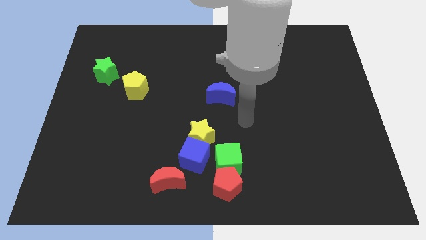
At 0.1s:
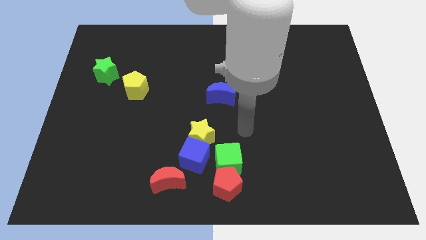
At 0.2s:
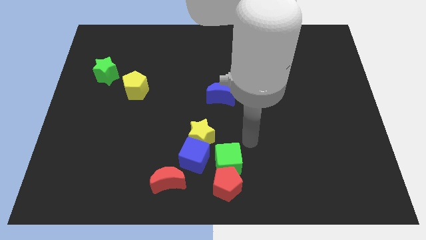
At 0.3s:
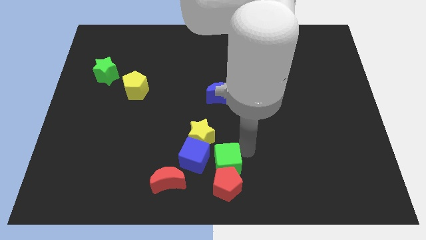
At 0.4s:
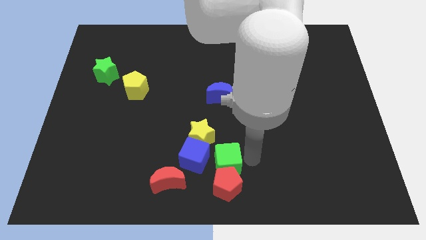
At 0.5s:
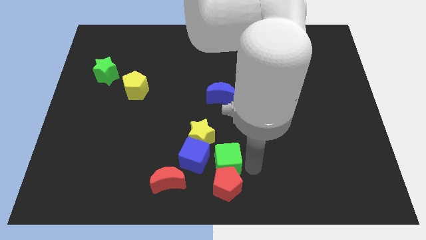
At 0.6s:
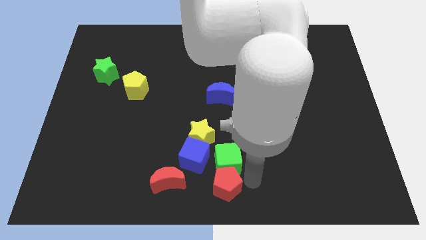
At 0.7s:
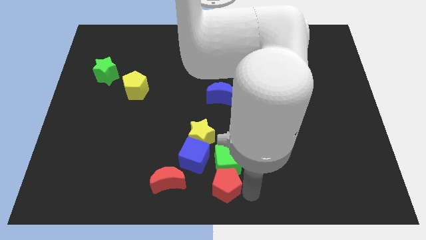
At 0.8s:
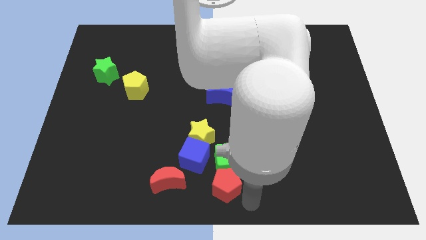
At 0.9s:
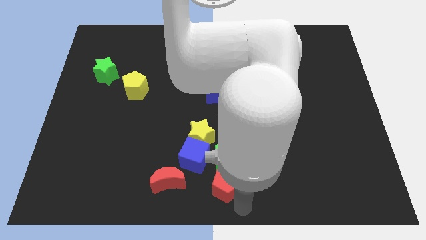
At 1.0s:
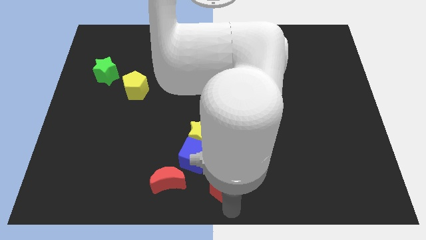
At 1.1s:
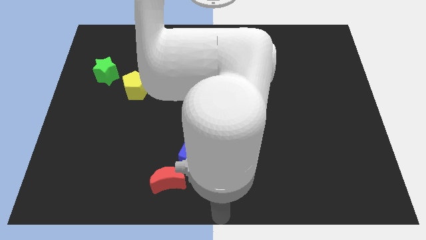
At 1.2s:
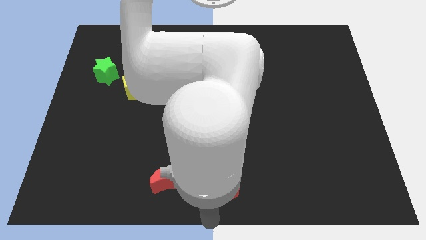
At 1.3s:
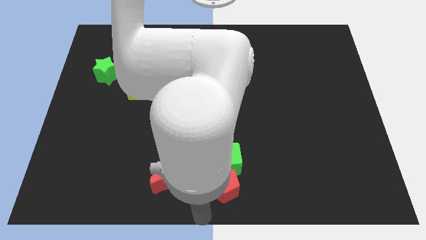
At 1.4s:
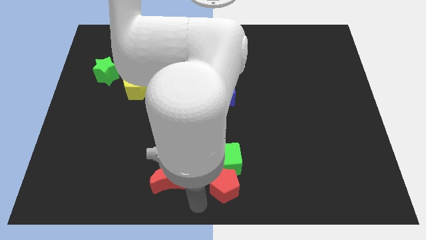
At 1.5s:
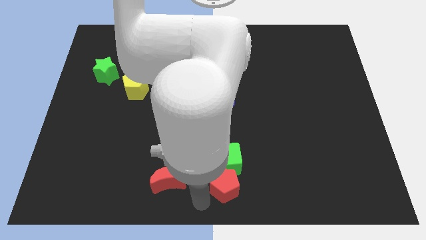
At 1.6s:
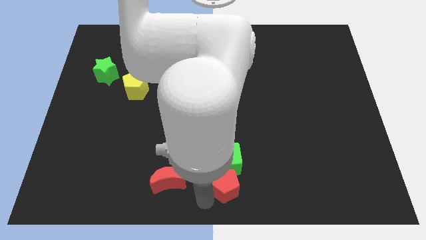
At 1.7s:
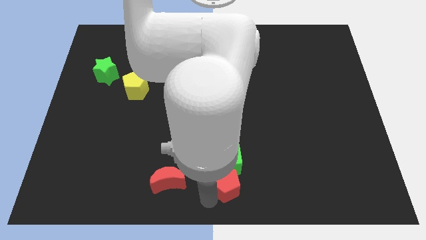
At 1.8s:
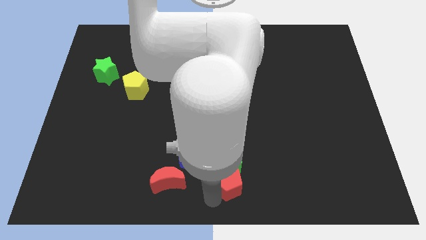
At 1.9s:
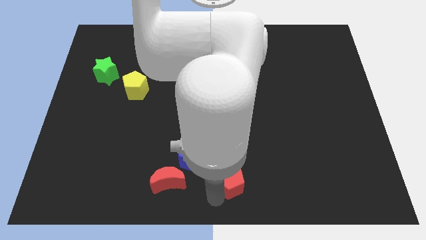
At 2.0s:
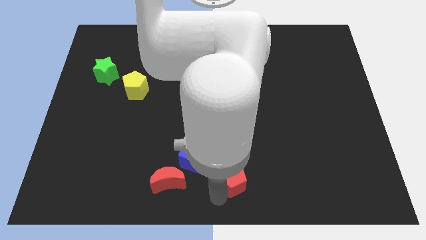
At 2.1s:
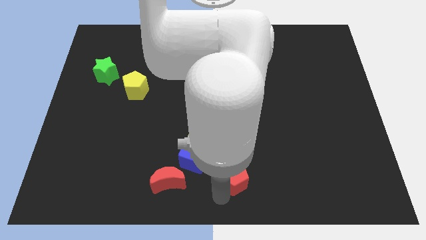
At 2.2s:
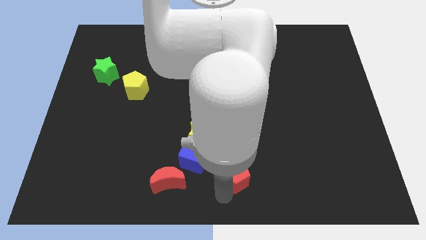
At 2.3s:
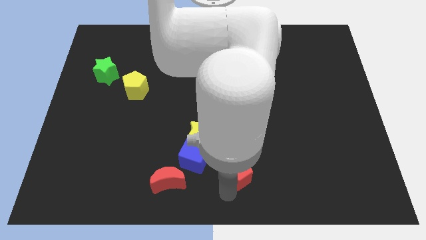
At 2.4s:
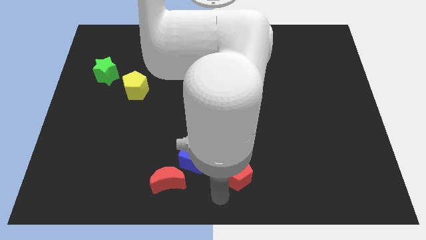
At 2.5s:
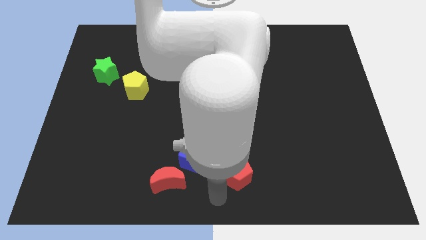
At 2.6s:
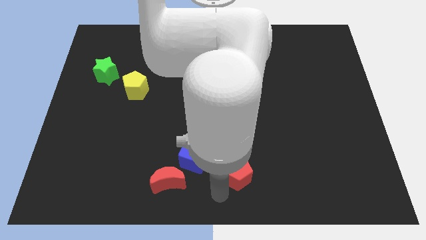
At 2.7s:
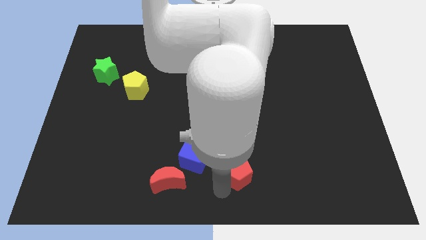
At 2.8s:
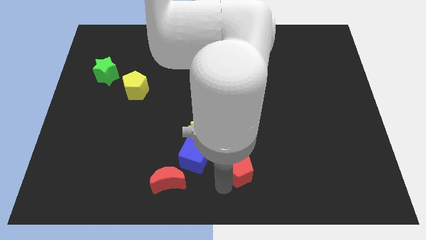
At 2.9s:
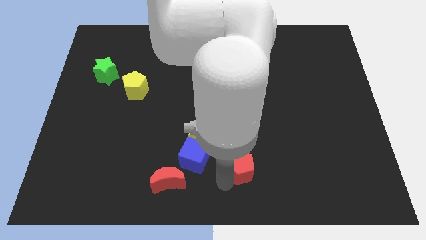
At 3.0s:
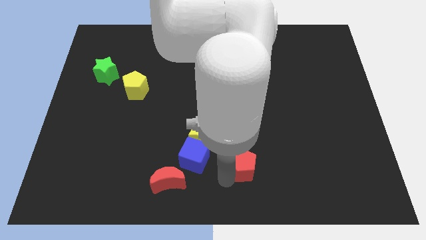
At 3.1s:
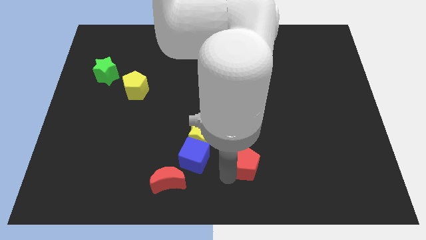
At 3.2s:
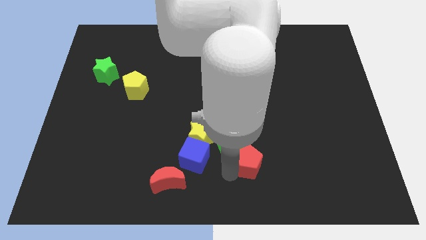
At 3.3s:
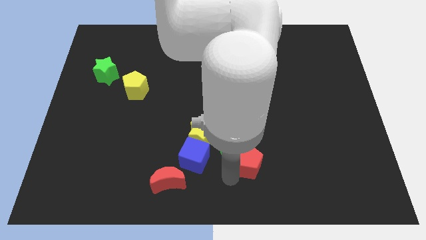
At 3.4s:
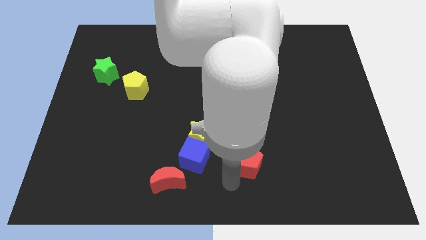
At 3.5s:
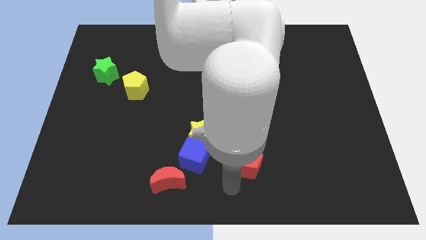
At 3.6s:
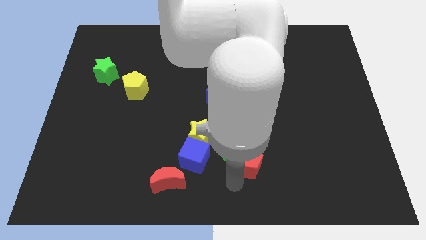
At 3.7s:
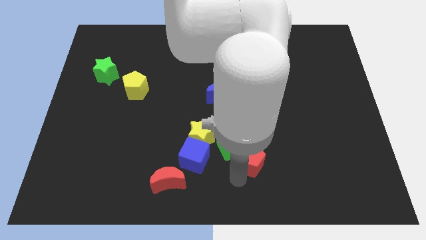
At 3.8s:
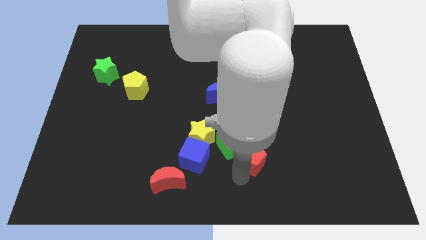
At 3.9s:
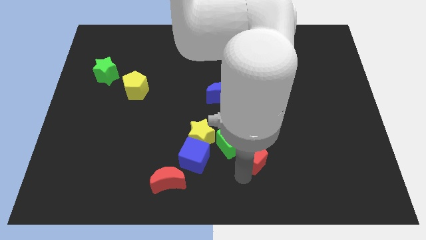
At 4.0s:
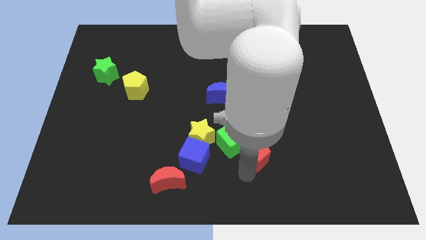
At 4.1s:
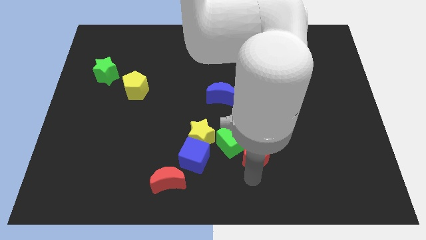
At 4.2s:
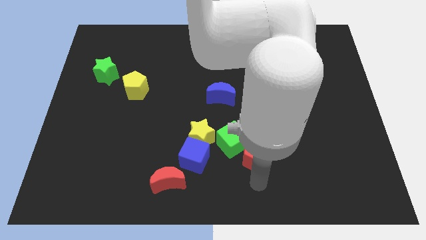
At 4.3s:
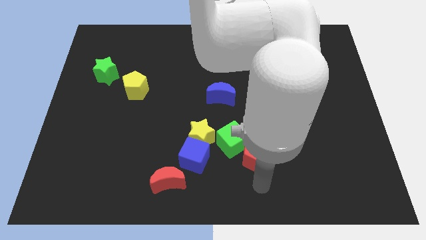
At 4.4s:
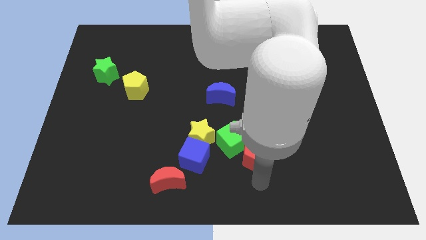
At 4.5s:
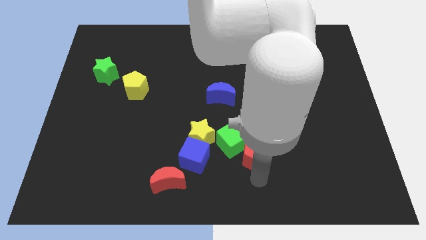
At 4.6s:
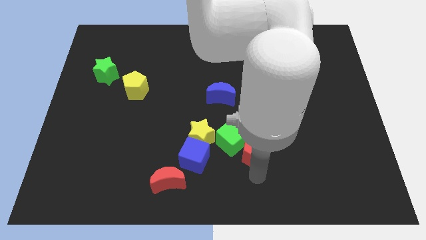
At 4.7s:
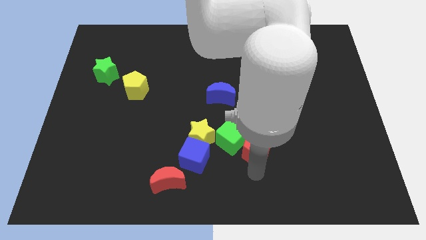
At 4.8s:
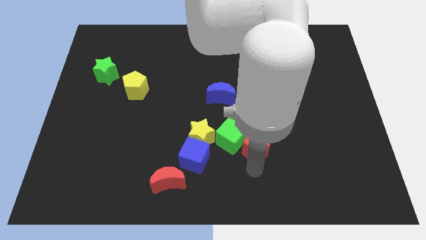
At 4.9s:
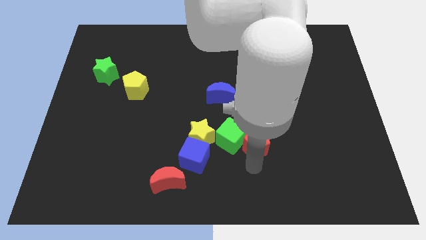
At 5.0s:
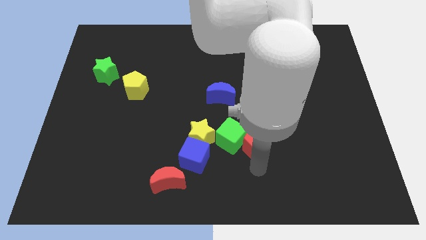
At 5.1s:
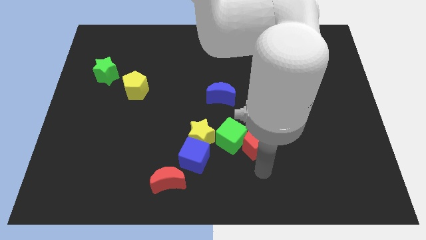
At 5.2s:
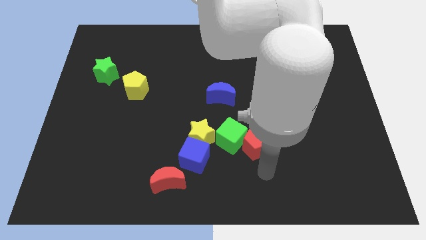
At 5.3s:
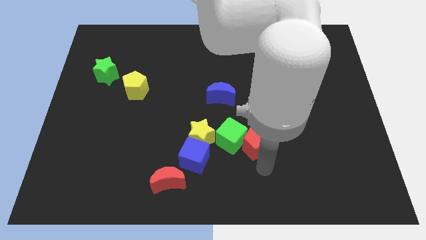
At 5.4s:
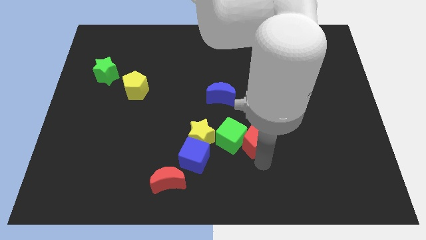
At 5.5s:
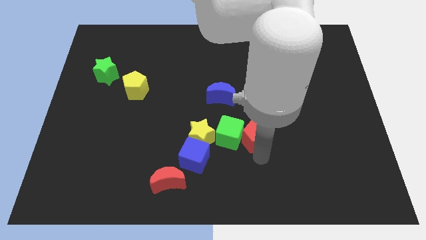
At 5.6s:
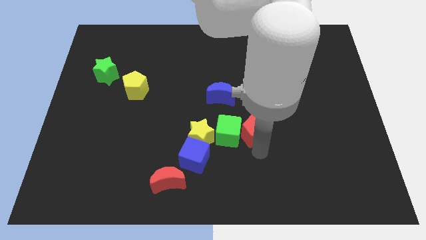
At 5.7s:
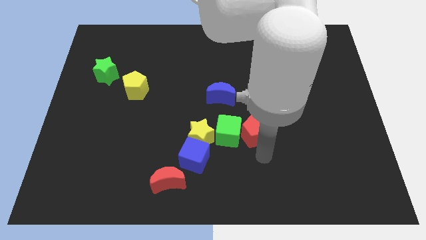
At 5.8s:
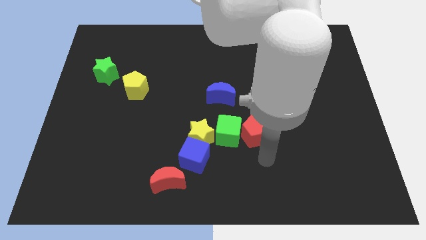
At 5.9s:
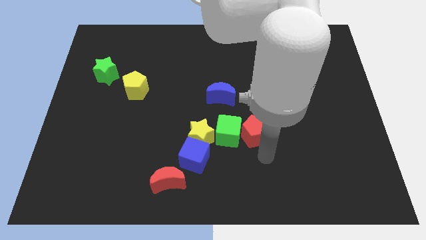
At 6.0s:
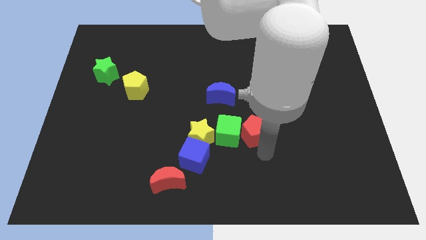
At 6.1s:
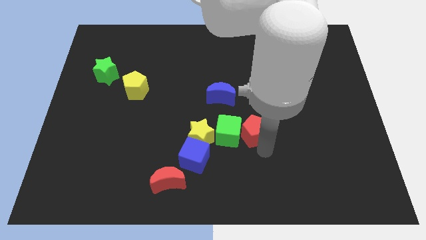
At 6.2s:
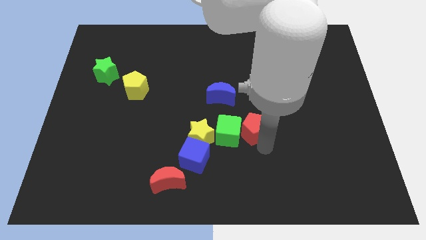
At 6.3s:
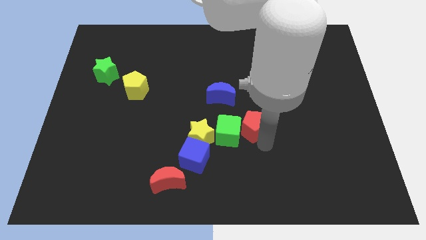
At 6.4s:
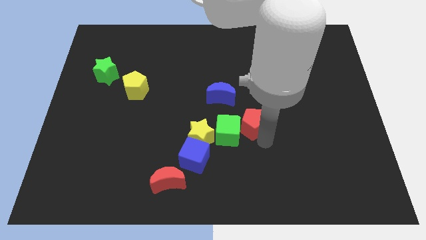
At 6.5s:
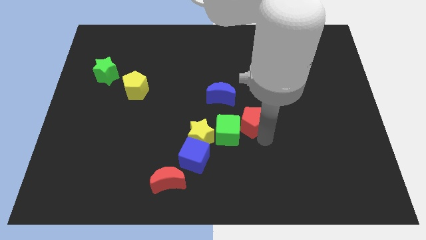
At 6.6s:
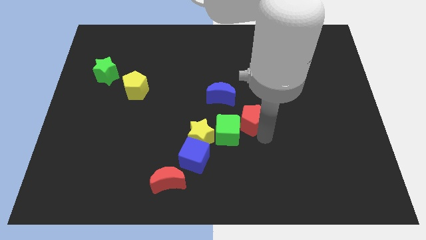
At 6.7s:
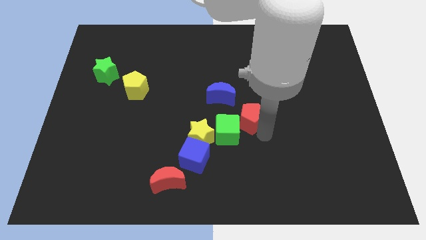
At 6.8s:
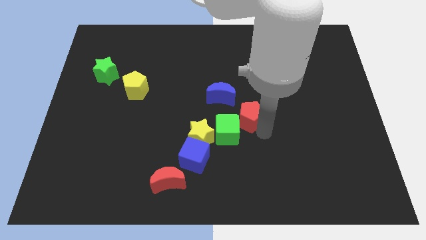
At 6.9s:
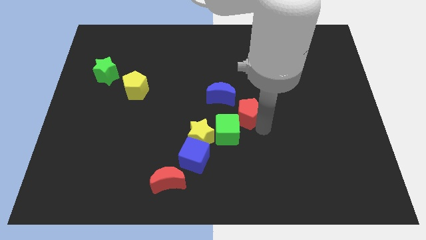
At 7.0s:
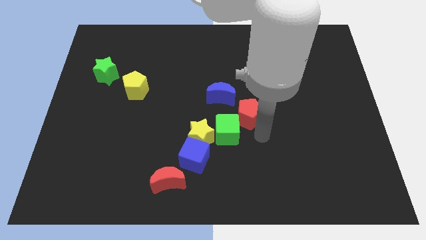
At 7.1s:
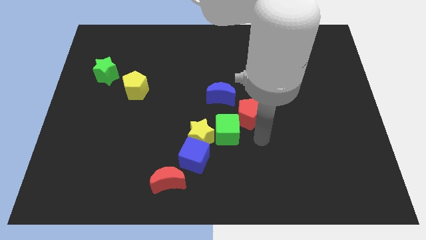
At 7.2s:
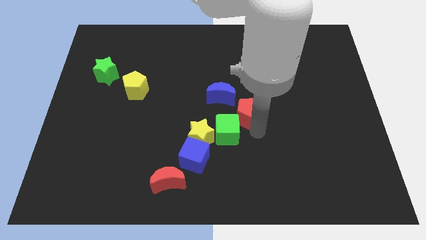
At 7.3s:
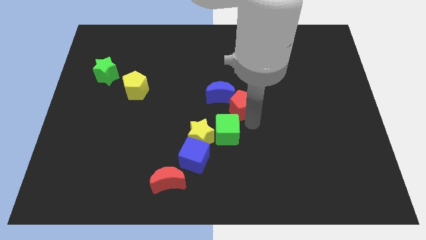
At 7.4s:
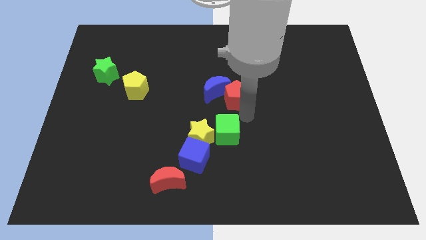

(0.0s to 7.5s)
slide the red pentagon up

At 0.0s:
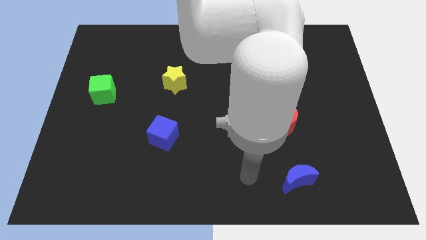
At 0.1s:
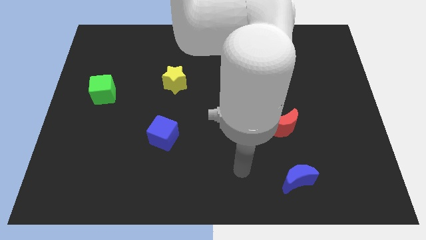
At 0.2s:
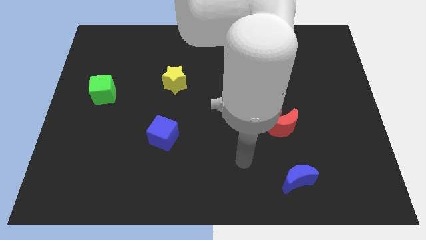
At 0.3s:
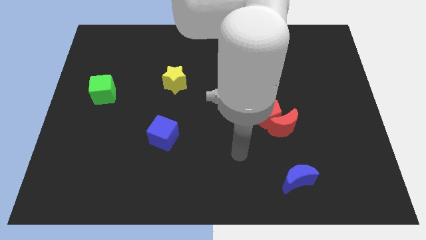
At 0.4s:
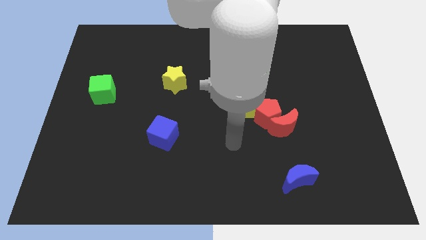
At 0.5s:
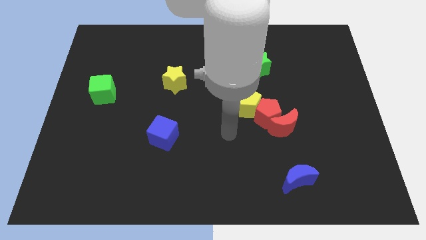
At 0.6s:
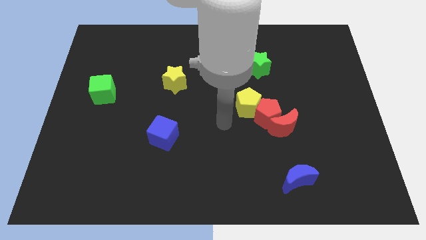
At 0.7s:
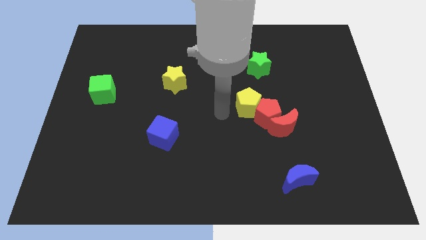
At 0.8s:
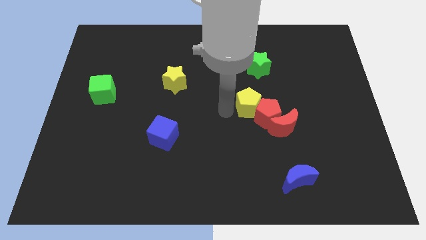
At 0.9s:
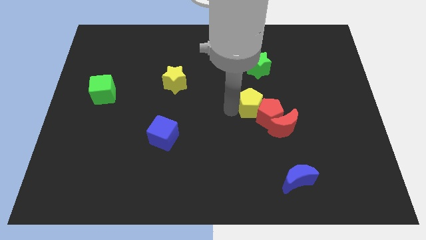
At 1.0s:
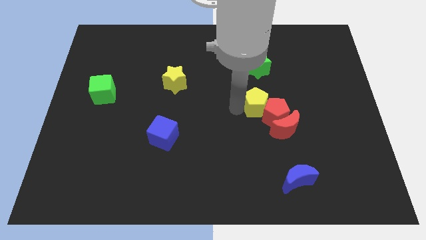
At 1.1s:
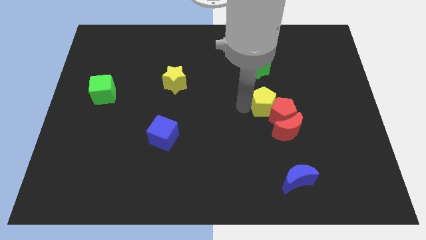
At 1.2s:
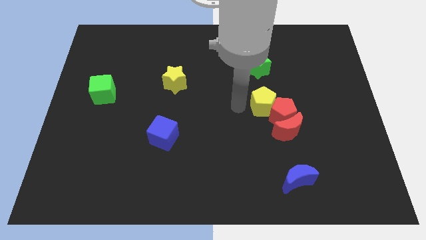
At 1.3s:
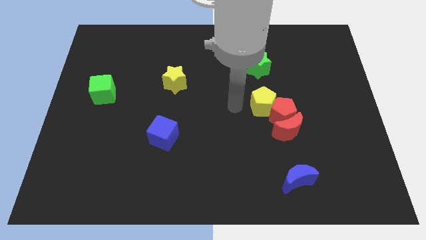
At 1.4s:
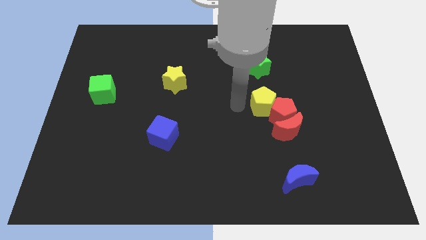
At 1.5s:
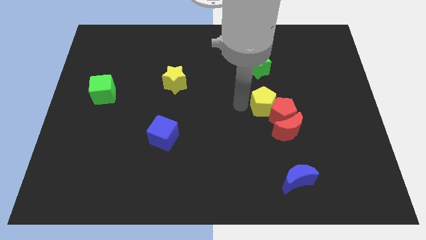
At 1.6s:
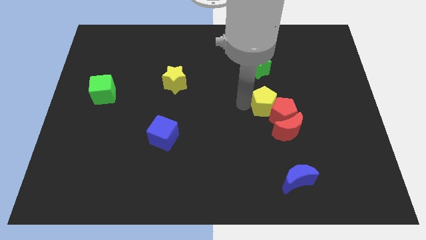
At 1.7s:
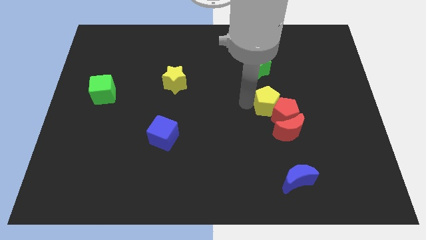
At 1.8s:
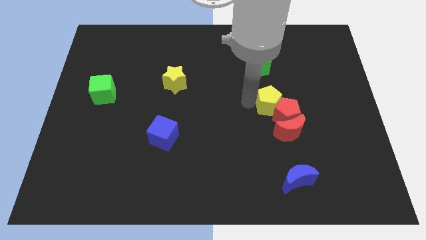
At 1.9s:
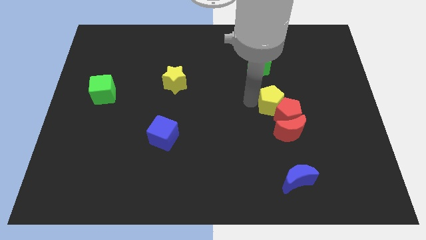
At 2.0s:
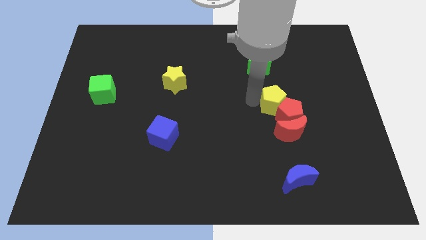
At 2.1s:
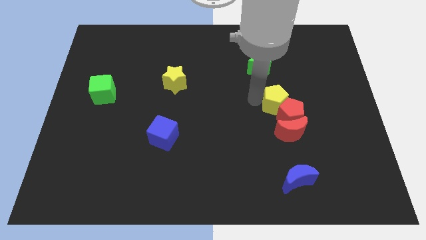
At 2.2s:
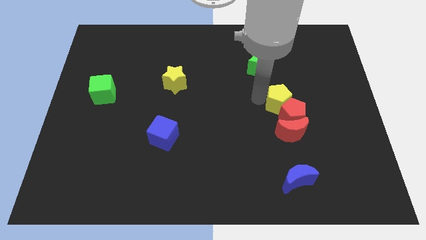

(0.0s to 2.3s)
push the yellow pentagon right somewhat
